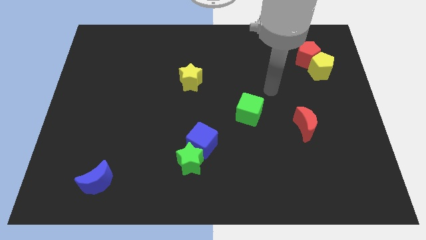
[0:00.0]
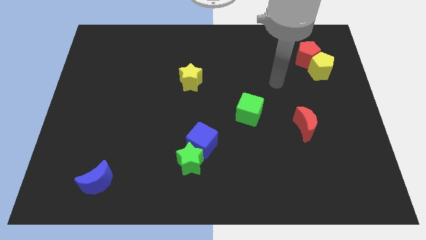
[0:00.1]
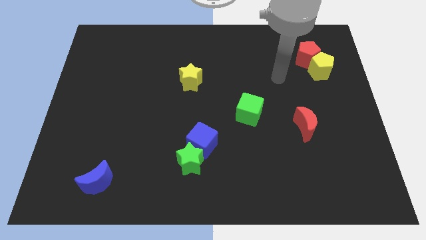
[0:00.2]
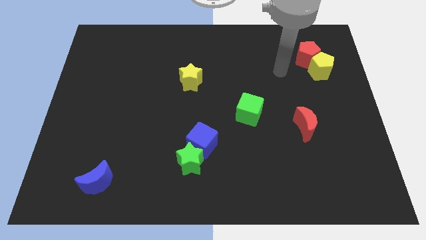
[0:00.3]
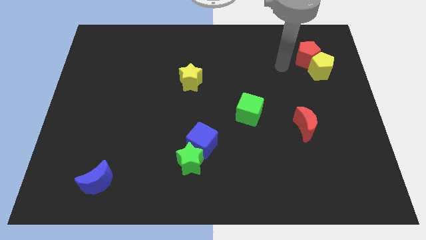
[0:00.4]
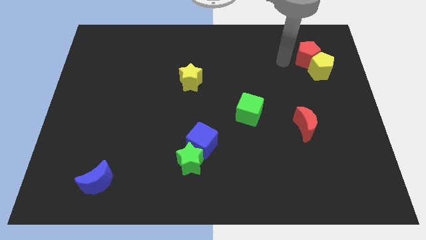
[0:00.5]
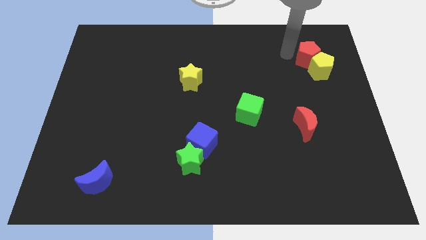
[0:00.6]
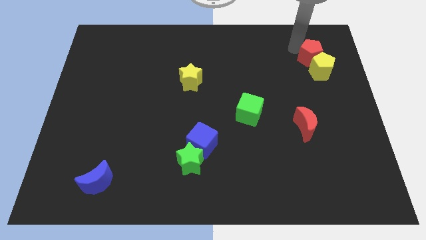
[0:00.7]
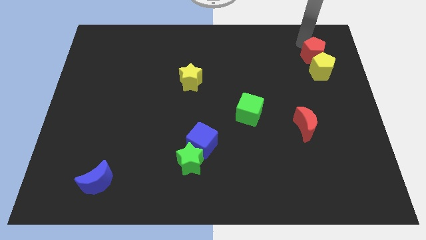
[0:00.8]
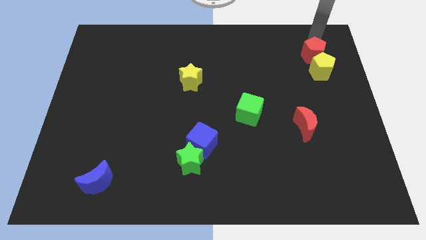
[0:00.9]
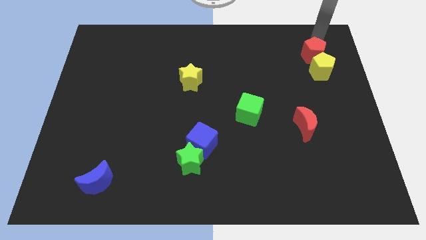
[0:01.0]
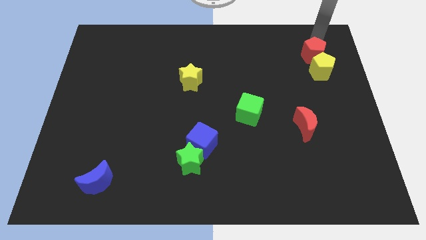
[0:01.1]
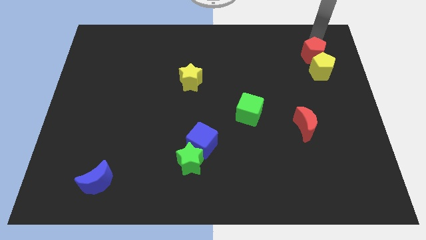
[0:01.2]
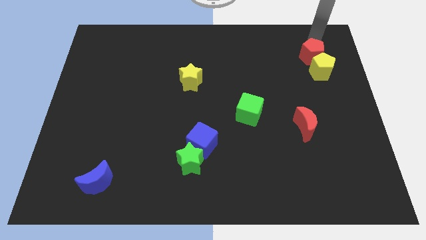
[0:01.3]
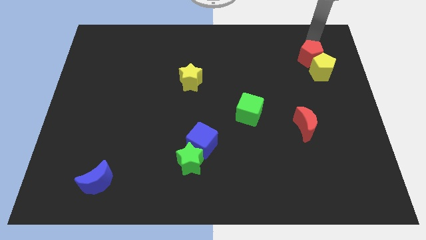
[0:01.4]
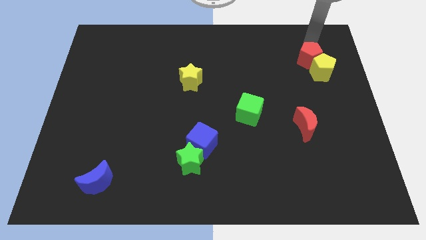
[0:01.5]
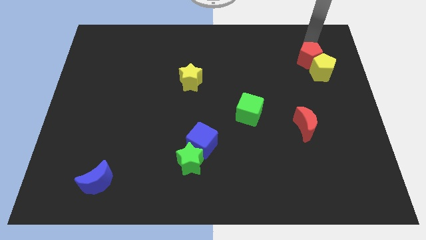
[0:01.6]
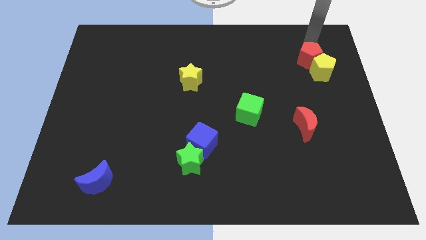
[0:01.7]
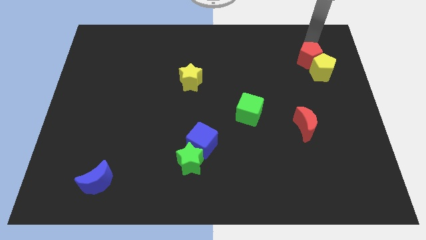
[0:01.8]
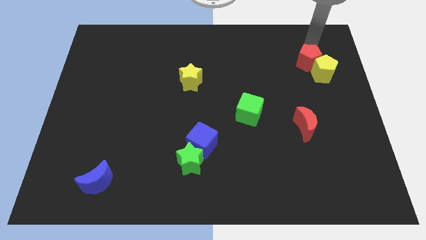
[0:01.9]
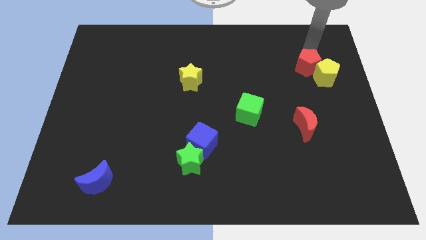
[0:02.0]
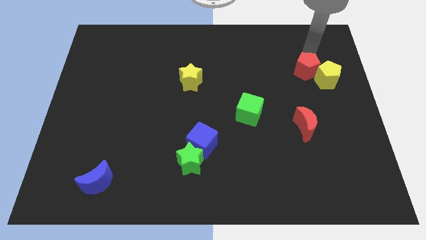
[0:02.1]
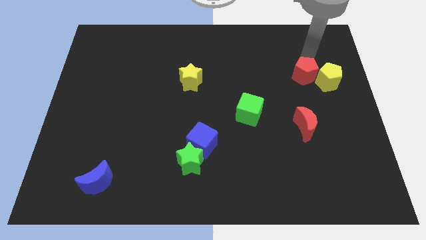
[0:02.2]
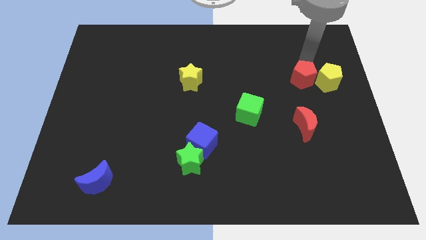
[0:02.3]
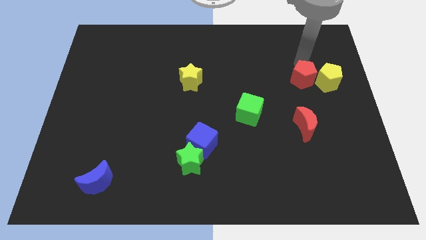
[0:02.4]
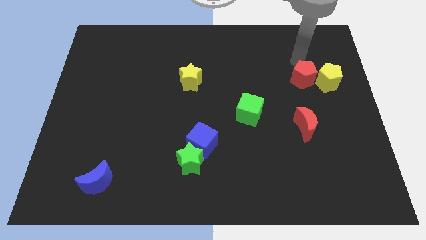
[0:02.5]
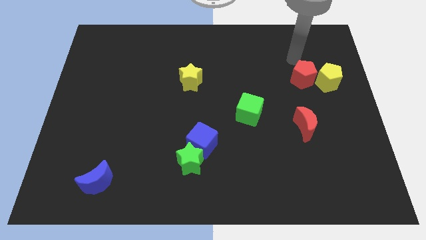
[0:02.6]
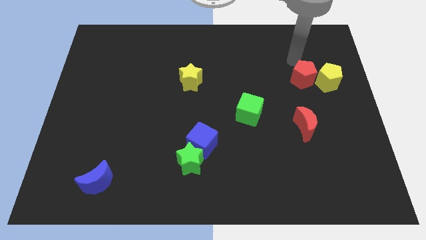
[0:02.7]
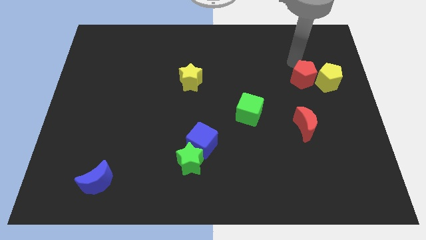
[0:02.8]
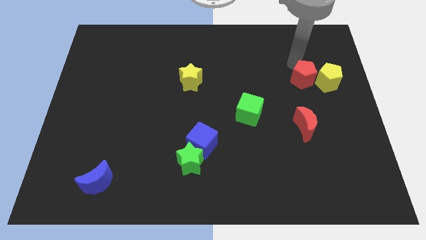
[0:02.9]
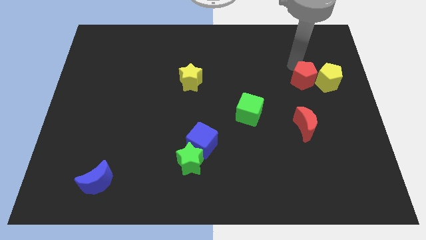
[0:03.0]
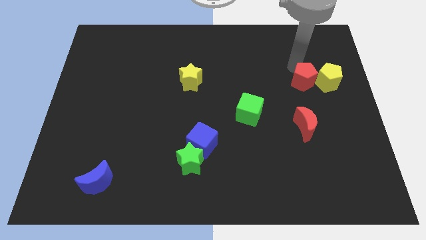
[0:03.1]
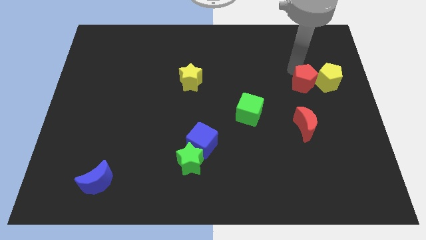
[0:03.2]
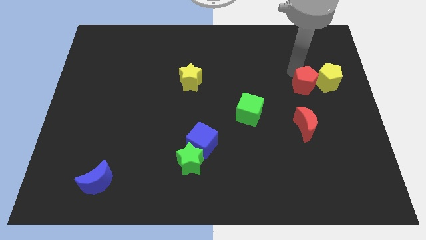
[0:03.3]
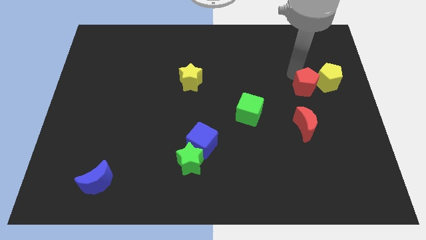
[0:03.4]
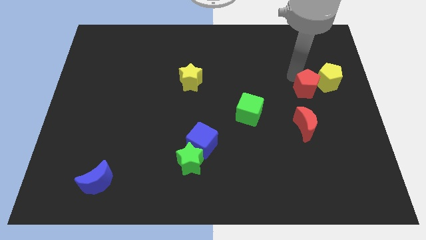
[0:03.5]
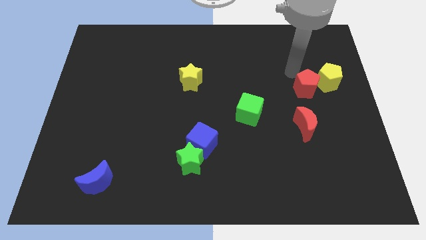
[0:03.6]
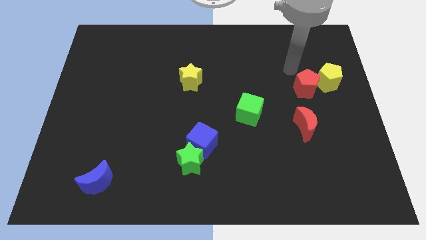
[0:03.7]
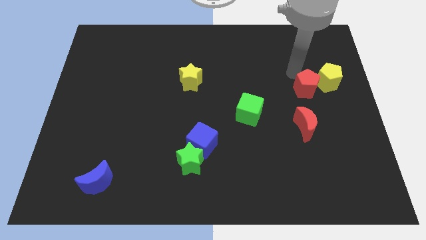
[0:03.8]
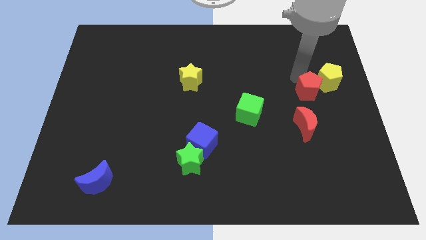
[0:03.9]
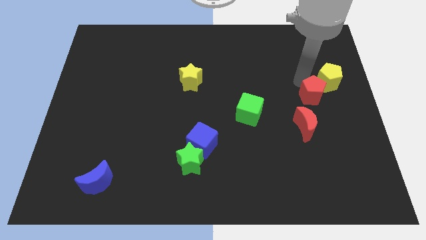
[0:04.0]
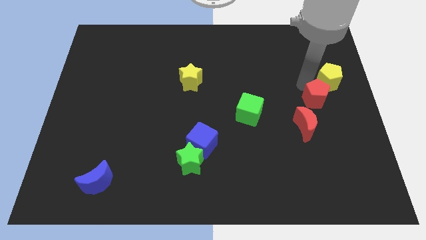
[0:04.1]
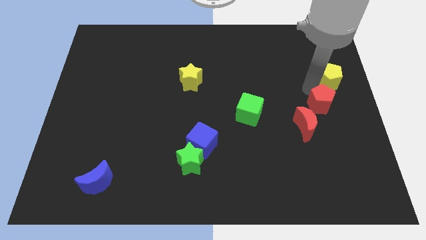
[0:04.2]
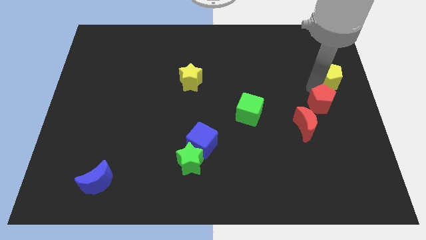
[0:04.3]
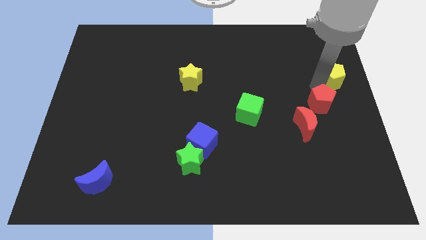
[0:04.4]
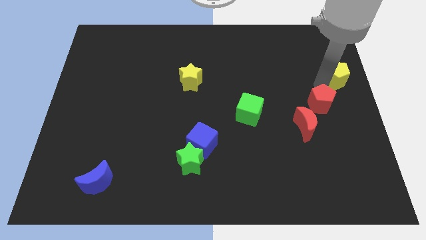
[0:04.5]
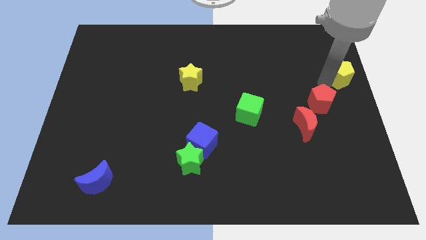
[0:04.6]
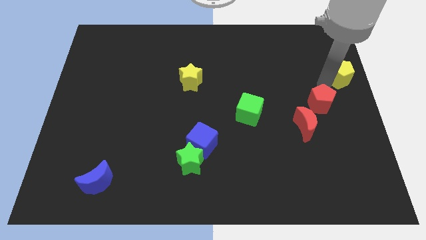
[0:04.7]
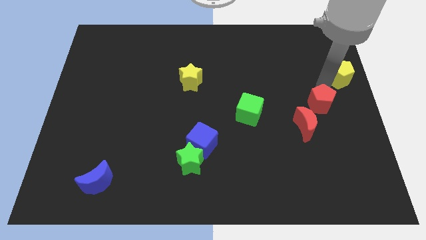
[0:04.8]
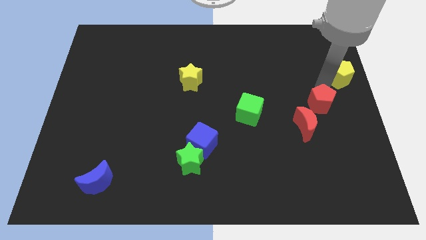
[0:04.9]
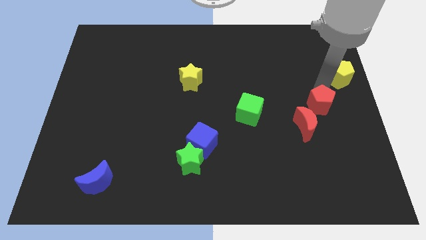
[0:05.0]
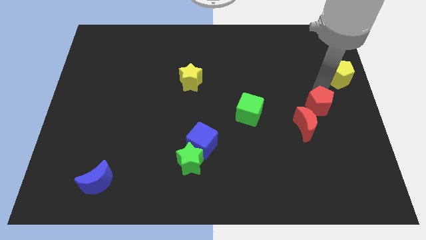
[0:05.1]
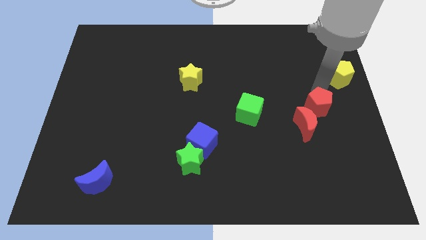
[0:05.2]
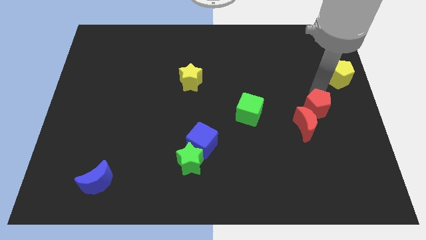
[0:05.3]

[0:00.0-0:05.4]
slide the red pentagon towards the red moon

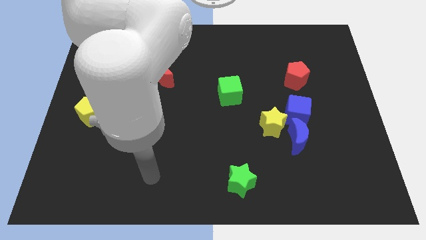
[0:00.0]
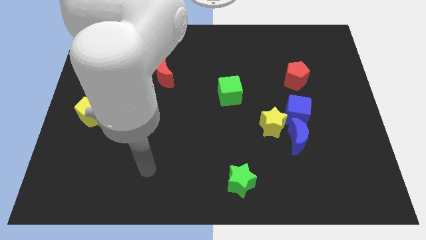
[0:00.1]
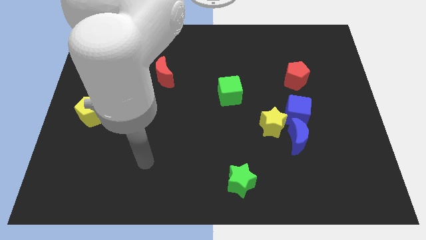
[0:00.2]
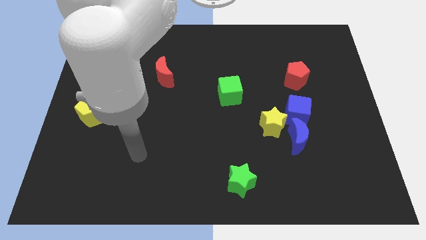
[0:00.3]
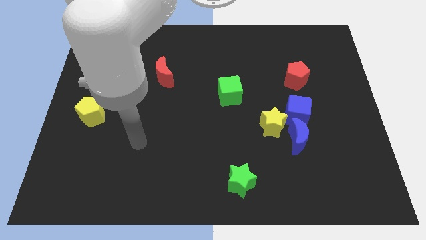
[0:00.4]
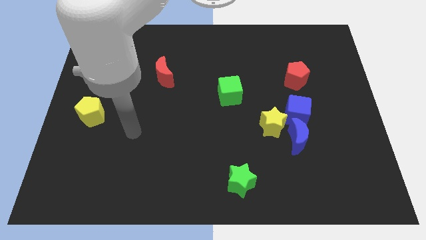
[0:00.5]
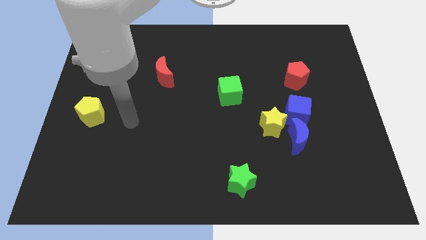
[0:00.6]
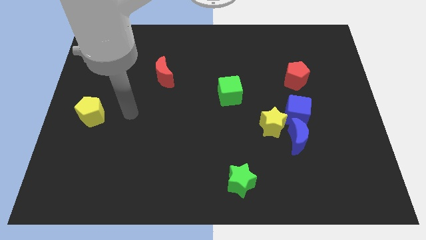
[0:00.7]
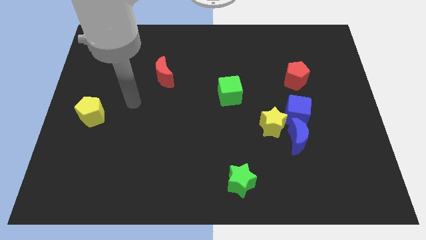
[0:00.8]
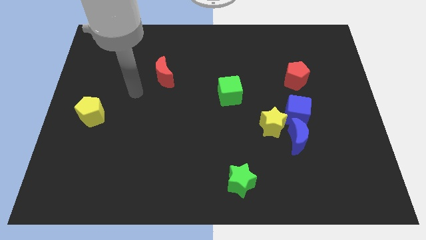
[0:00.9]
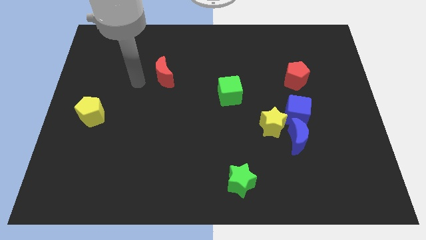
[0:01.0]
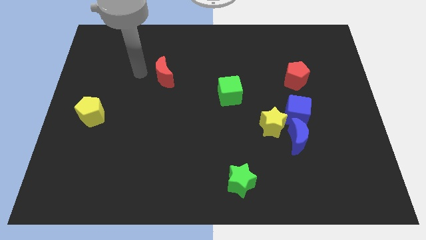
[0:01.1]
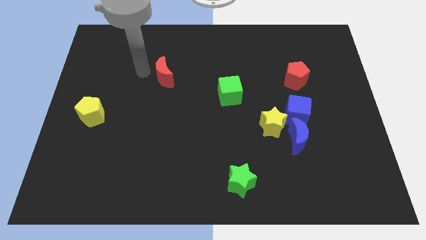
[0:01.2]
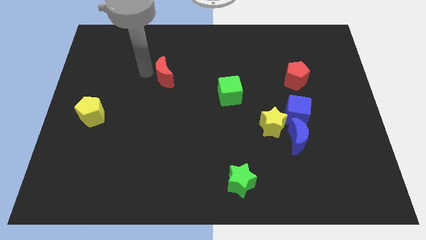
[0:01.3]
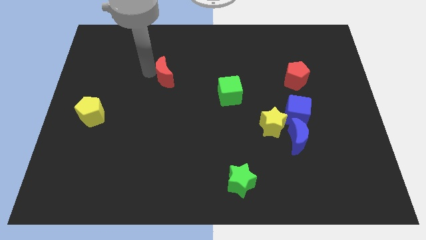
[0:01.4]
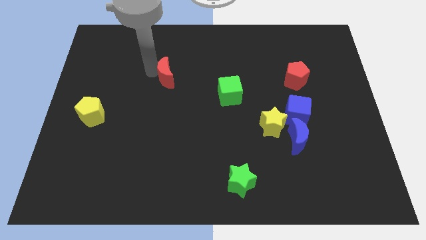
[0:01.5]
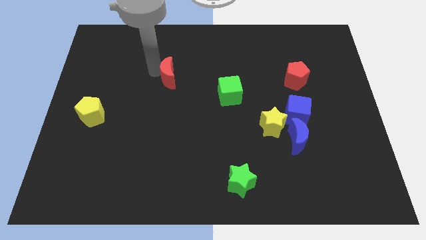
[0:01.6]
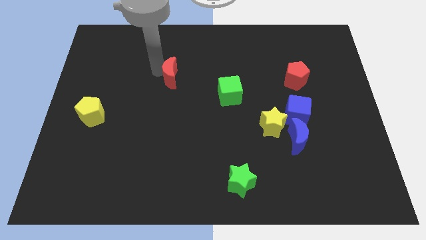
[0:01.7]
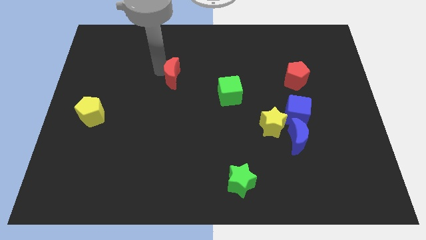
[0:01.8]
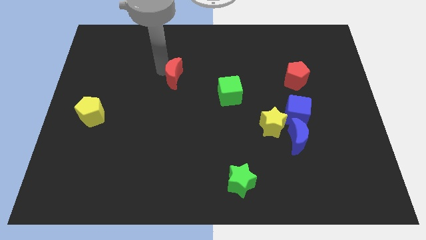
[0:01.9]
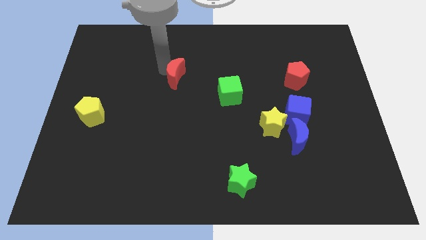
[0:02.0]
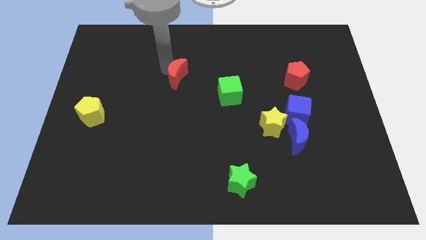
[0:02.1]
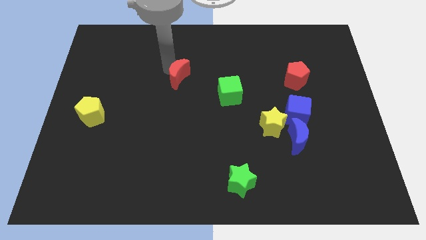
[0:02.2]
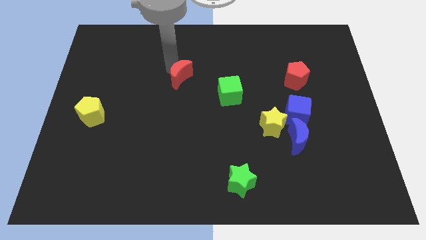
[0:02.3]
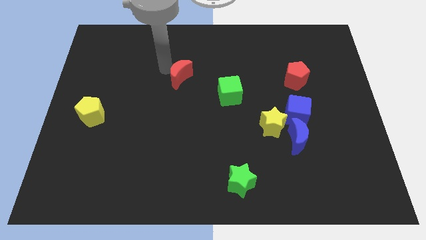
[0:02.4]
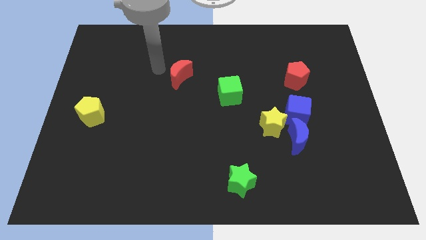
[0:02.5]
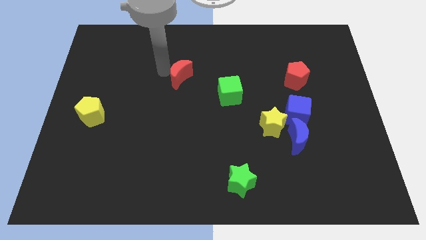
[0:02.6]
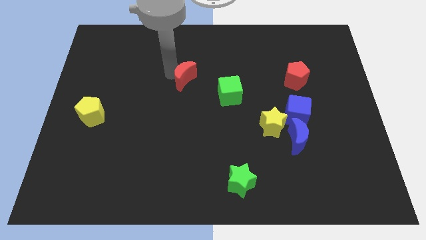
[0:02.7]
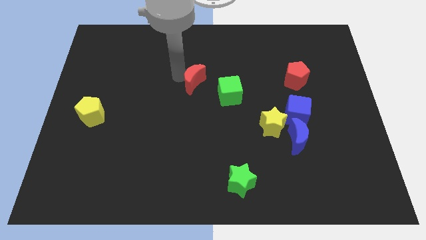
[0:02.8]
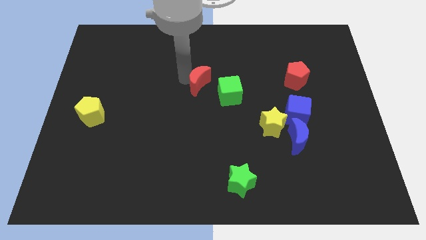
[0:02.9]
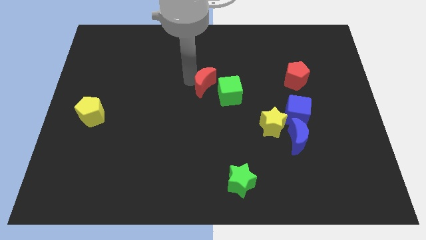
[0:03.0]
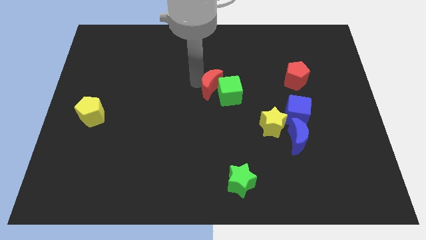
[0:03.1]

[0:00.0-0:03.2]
push the red moon to the green cube
